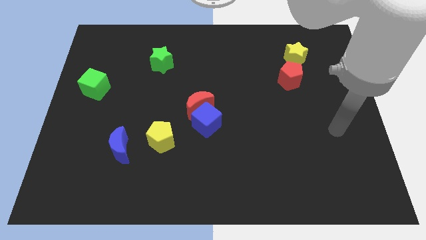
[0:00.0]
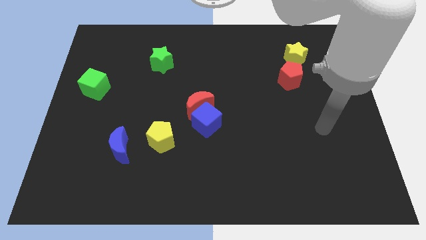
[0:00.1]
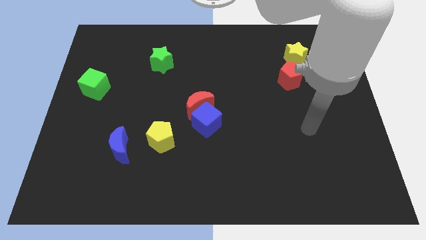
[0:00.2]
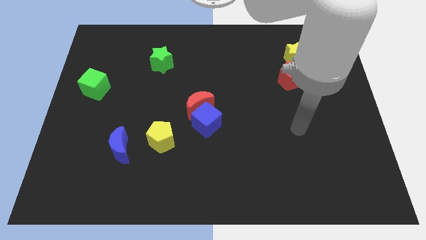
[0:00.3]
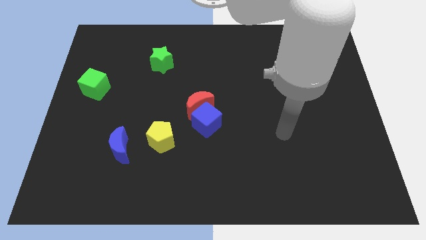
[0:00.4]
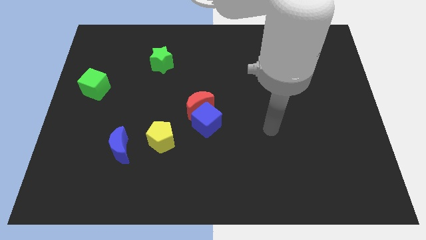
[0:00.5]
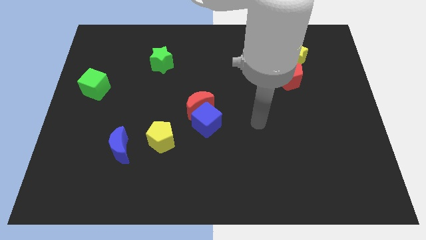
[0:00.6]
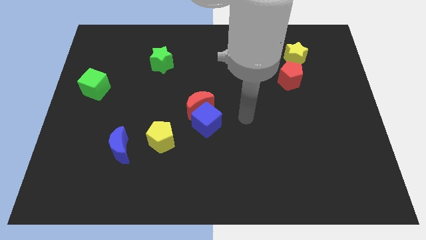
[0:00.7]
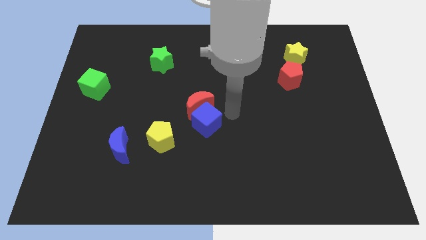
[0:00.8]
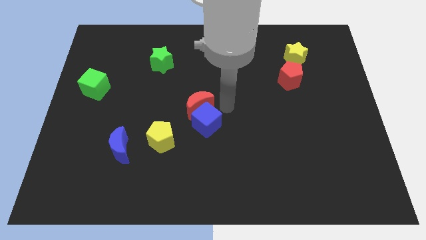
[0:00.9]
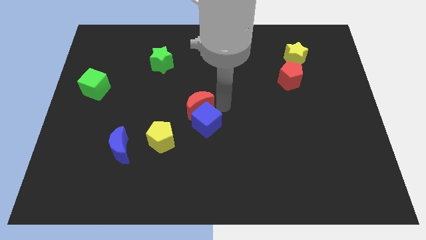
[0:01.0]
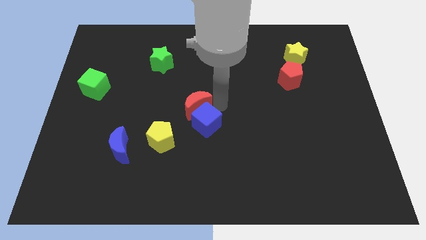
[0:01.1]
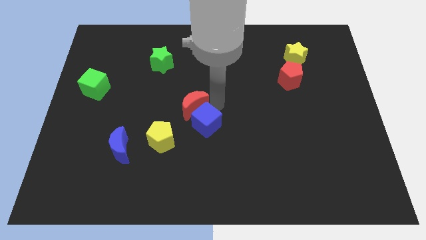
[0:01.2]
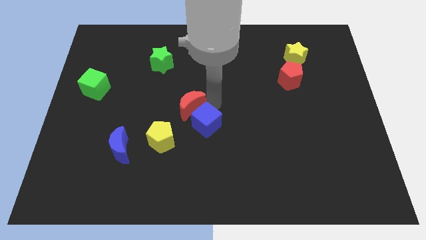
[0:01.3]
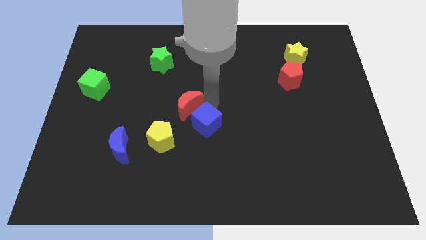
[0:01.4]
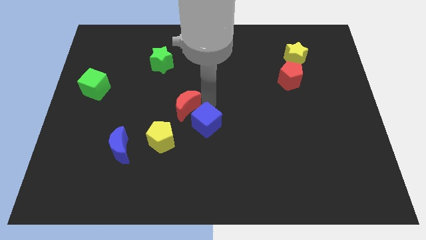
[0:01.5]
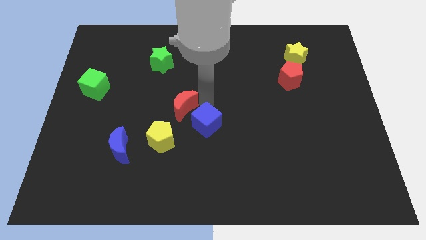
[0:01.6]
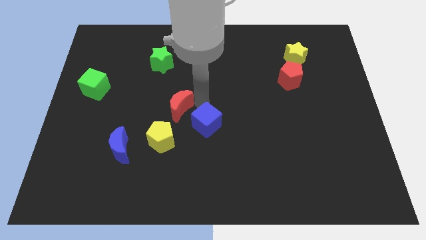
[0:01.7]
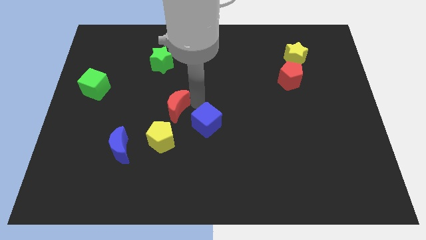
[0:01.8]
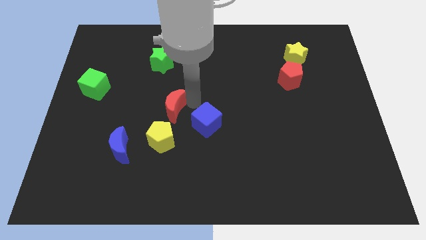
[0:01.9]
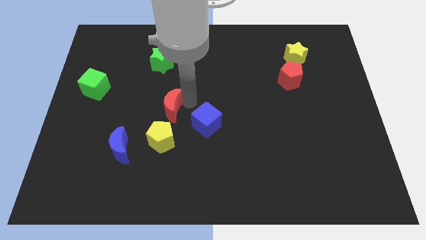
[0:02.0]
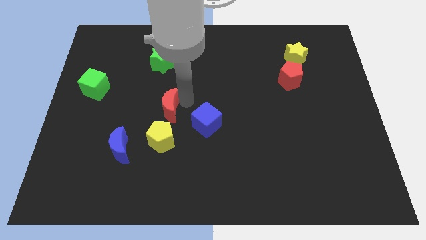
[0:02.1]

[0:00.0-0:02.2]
push the red moon to the left a little

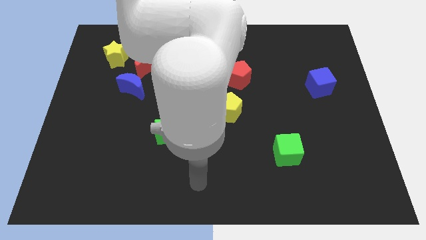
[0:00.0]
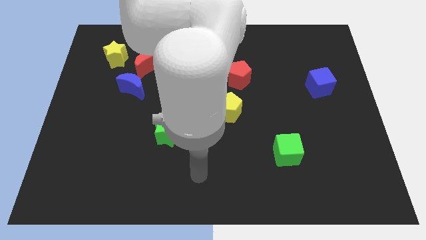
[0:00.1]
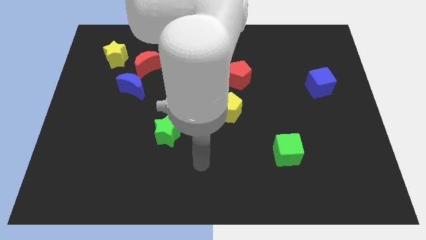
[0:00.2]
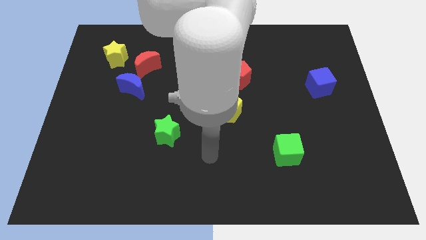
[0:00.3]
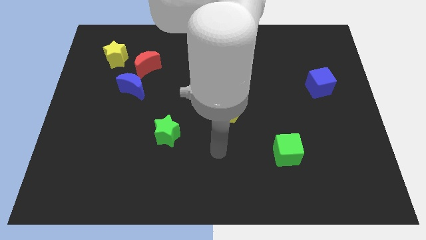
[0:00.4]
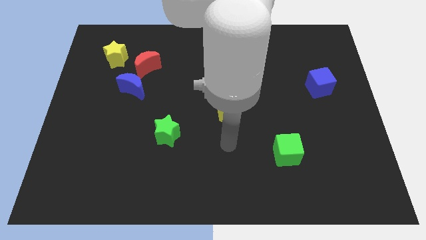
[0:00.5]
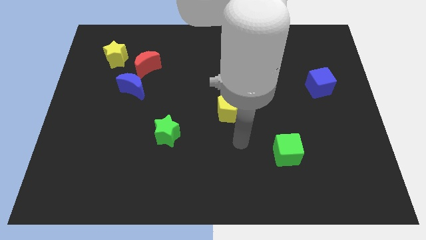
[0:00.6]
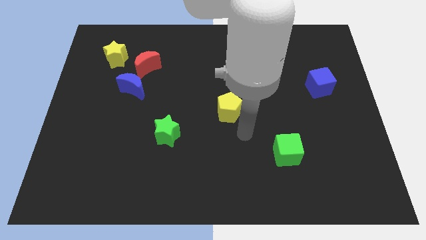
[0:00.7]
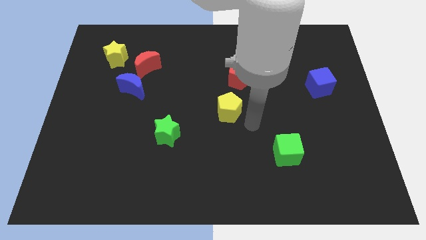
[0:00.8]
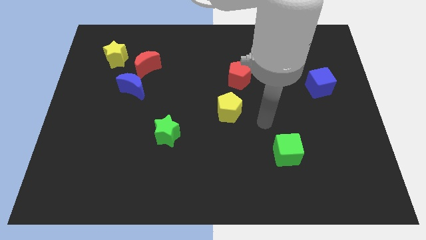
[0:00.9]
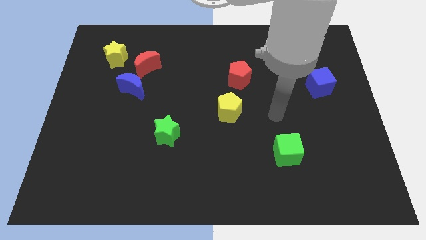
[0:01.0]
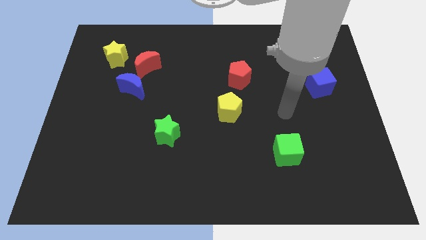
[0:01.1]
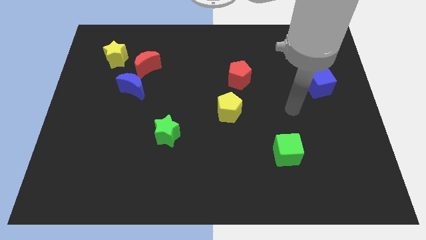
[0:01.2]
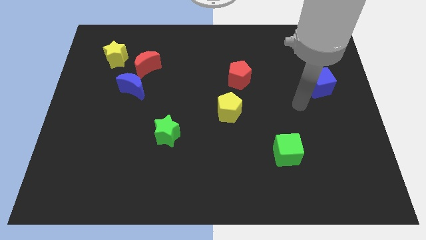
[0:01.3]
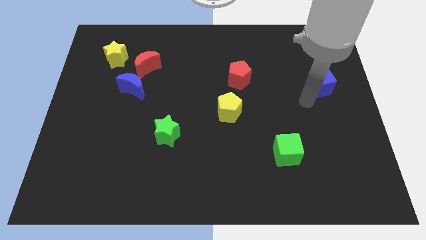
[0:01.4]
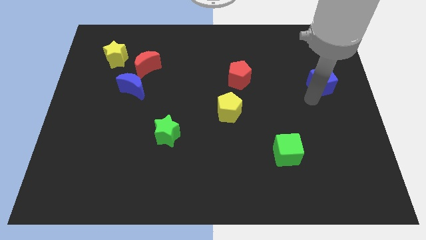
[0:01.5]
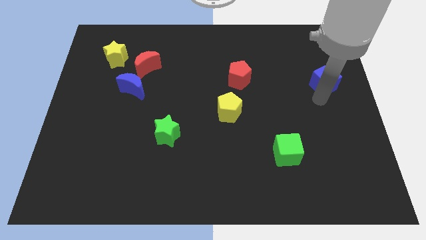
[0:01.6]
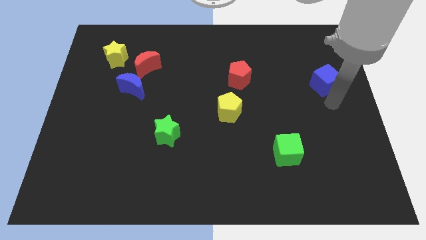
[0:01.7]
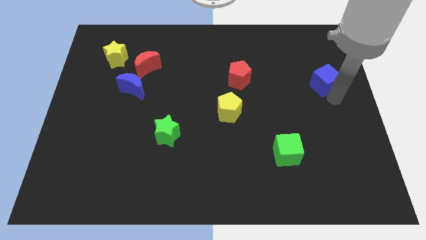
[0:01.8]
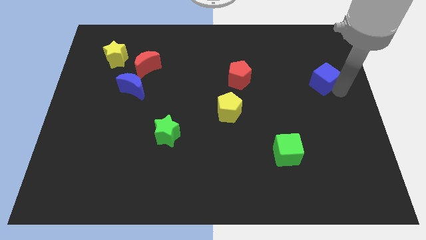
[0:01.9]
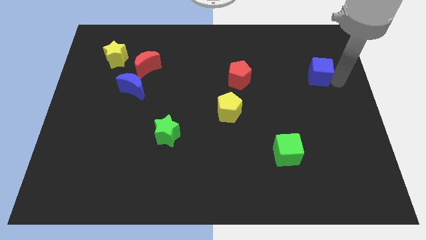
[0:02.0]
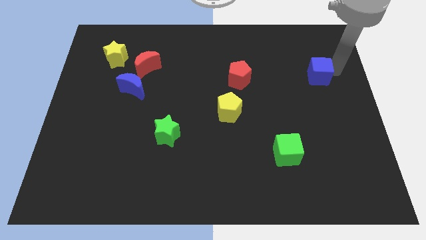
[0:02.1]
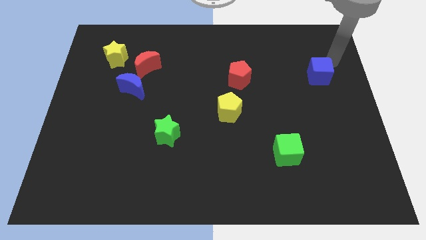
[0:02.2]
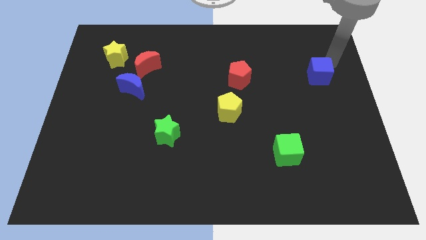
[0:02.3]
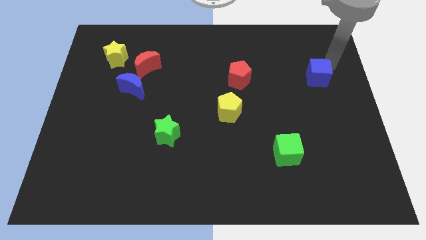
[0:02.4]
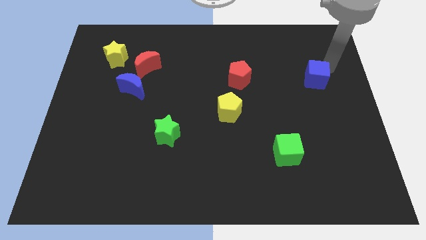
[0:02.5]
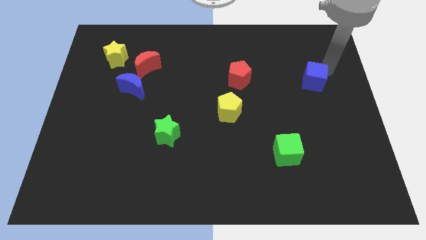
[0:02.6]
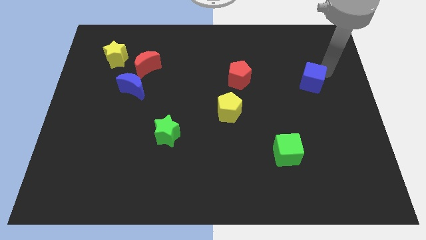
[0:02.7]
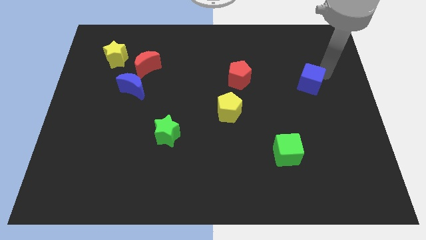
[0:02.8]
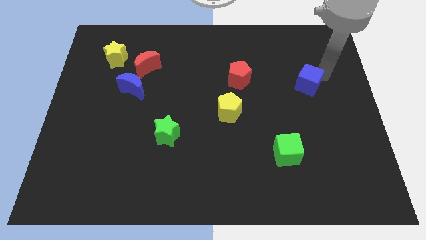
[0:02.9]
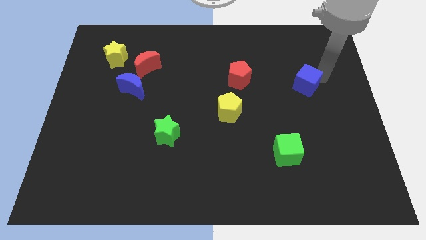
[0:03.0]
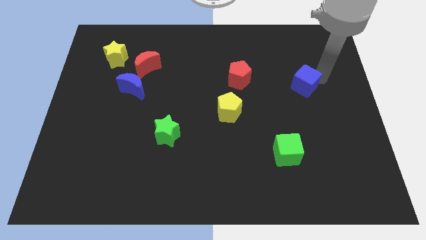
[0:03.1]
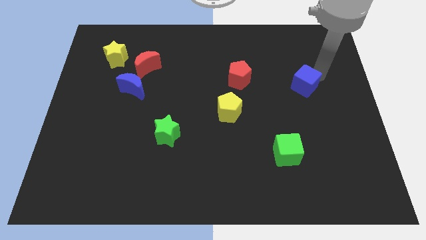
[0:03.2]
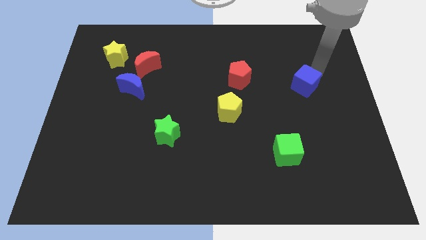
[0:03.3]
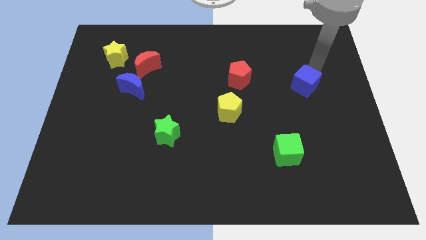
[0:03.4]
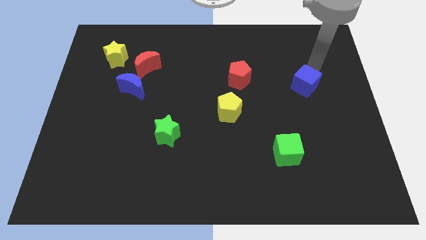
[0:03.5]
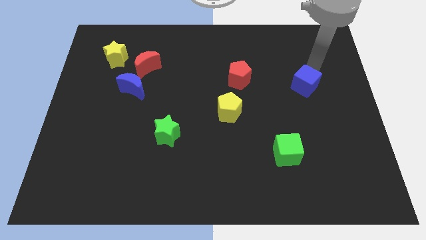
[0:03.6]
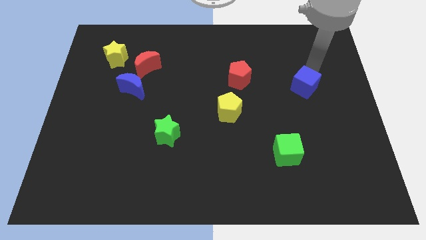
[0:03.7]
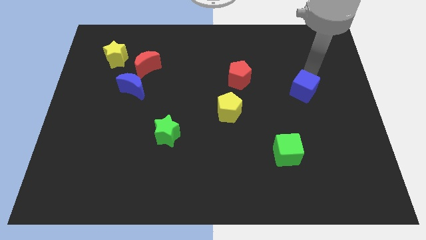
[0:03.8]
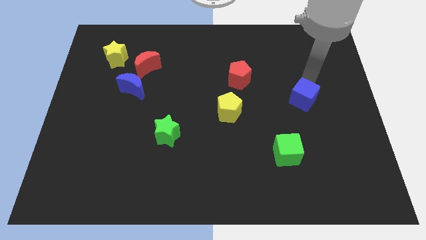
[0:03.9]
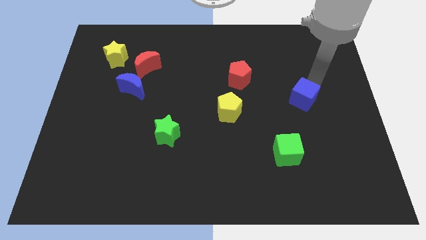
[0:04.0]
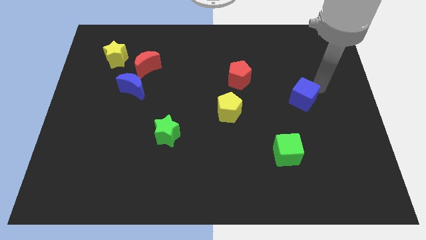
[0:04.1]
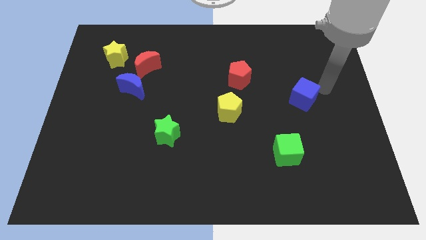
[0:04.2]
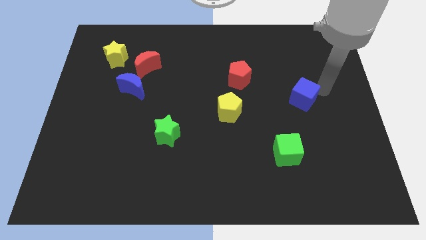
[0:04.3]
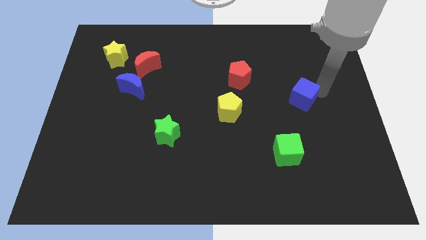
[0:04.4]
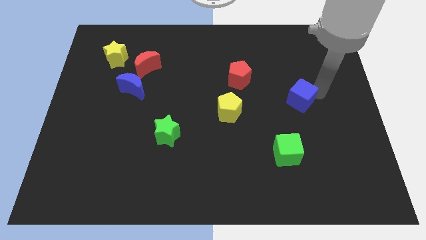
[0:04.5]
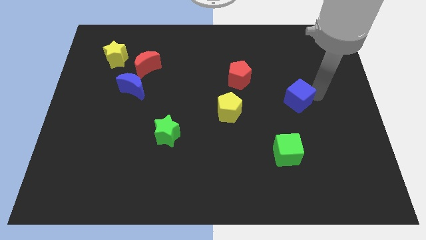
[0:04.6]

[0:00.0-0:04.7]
push the blue cube diagonally down and left slightly

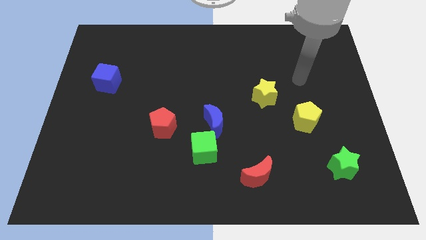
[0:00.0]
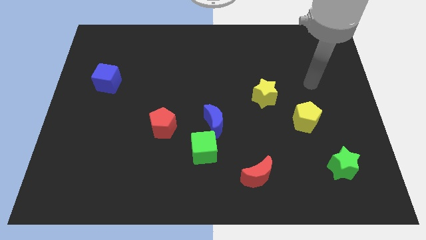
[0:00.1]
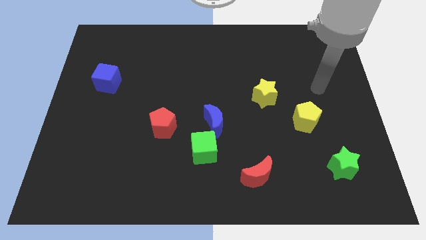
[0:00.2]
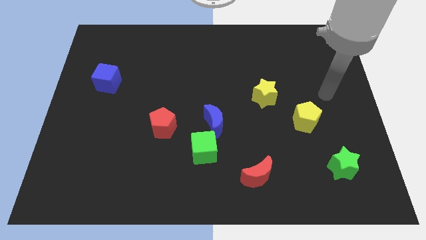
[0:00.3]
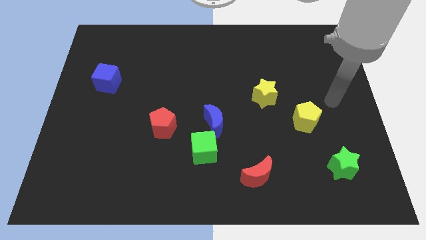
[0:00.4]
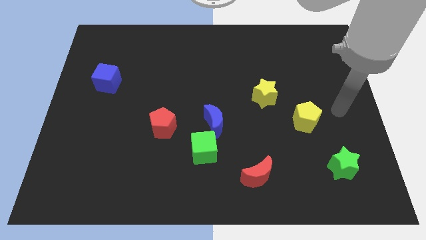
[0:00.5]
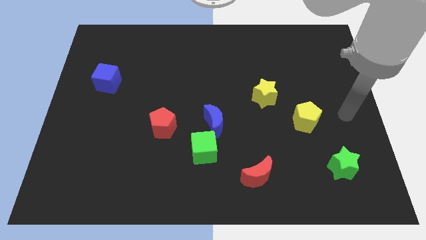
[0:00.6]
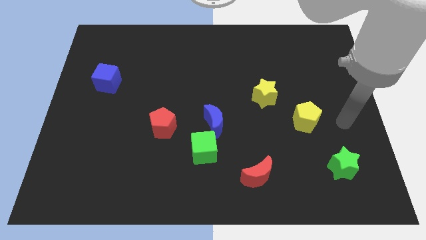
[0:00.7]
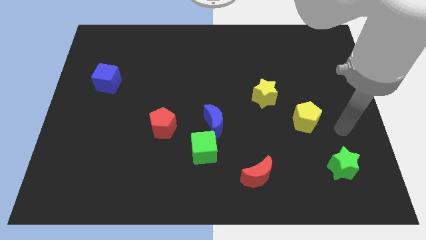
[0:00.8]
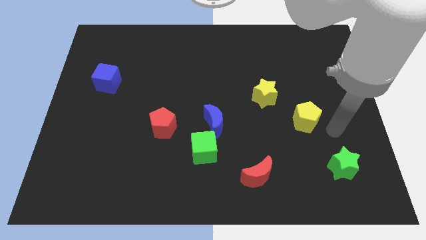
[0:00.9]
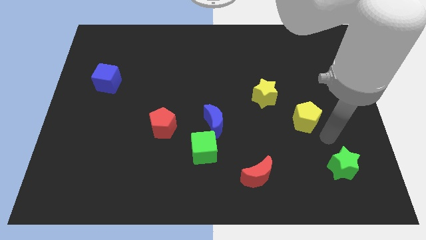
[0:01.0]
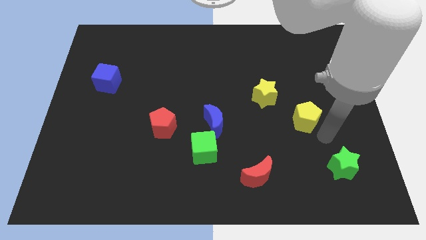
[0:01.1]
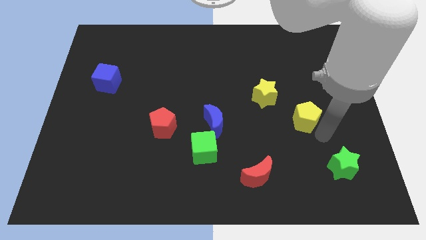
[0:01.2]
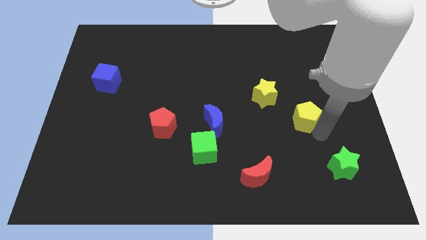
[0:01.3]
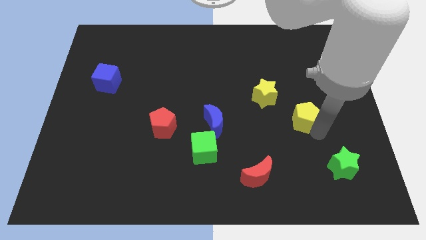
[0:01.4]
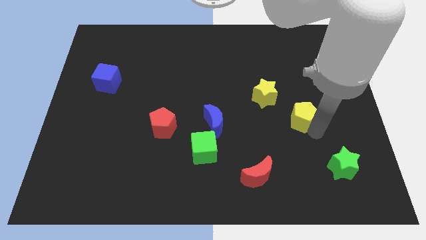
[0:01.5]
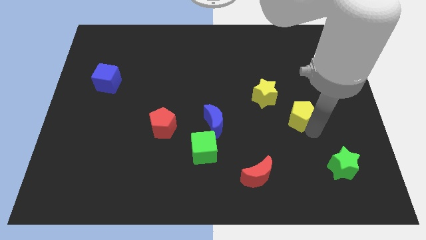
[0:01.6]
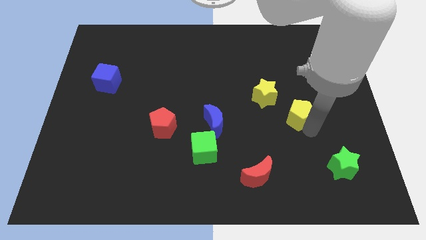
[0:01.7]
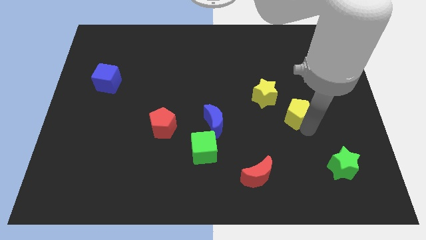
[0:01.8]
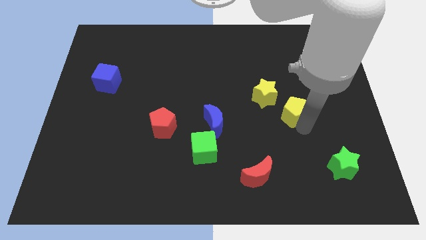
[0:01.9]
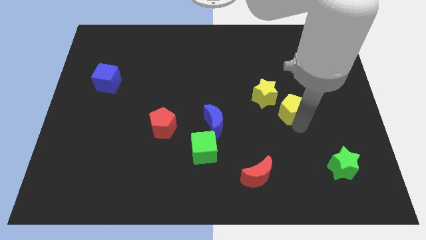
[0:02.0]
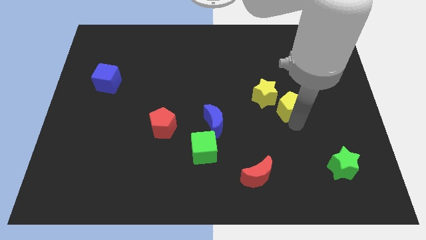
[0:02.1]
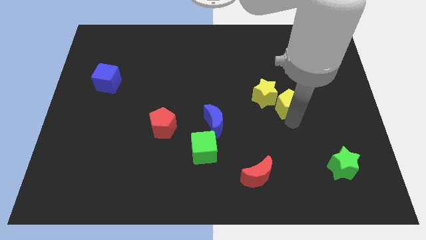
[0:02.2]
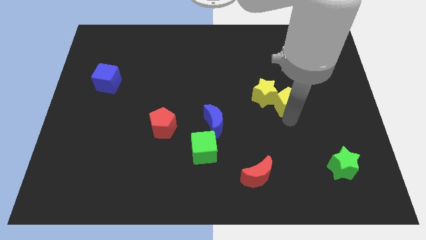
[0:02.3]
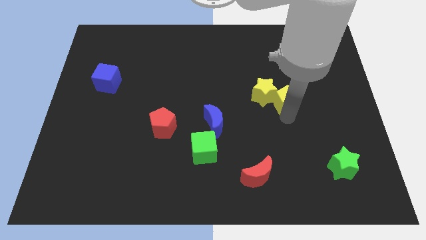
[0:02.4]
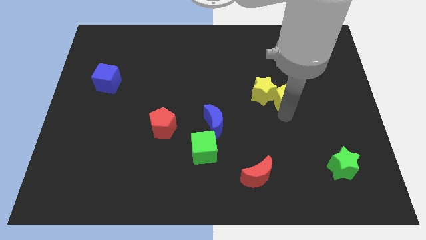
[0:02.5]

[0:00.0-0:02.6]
slightly push the yellow pentagon up and left diagonally
